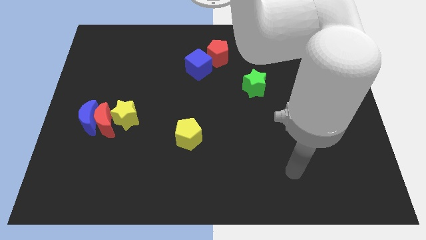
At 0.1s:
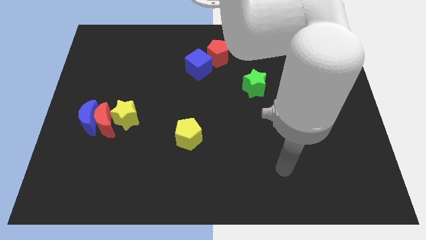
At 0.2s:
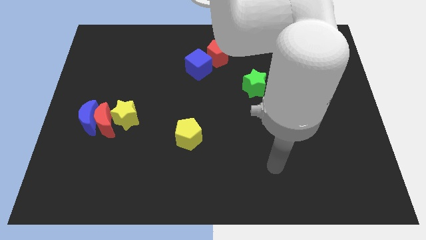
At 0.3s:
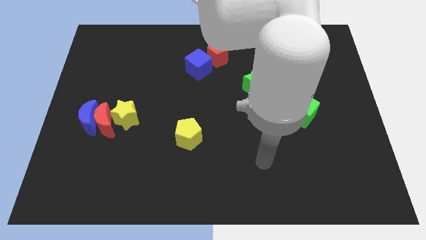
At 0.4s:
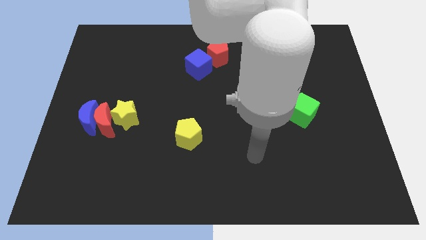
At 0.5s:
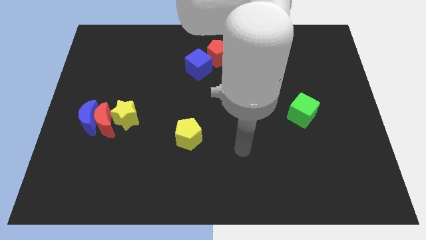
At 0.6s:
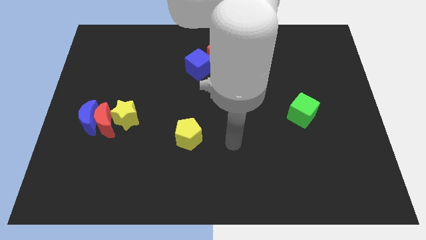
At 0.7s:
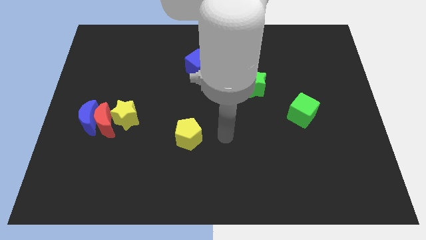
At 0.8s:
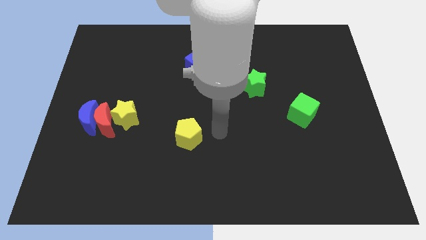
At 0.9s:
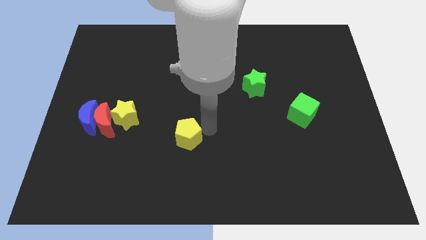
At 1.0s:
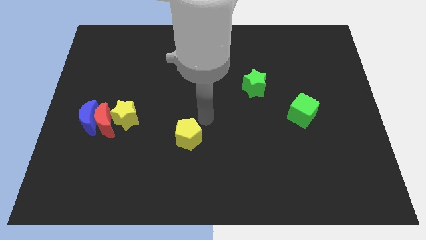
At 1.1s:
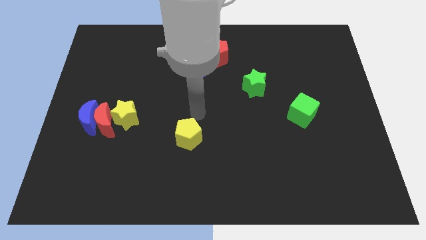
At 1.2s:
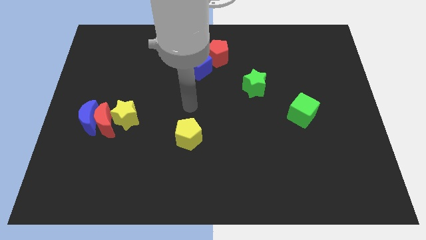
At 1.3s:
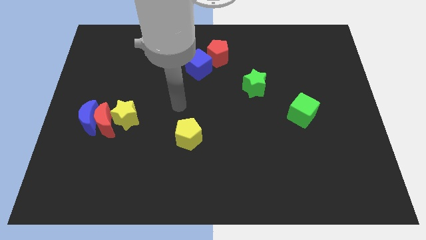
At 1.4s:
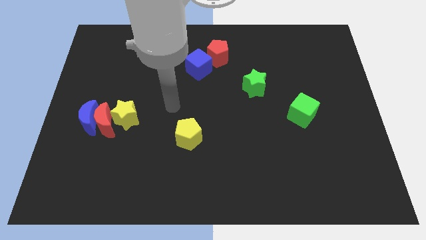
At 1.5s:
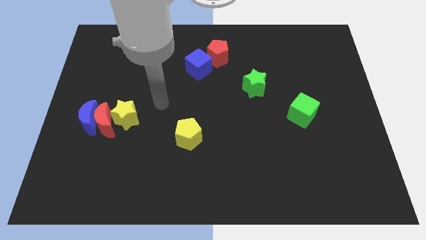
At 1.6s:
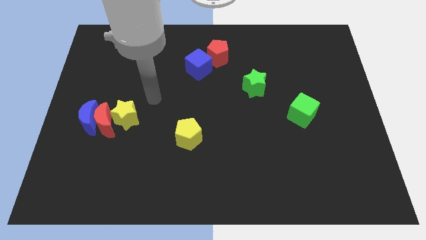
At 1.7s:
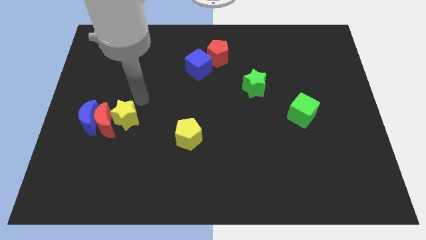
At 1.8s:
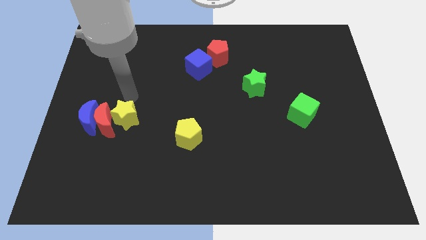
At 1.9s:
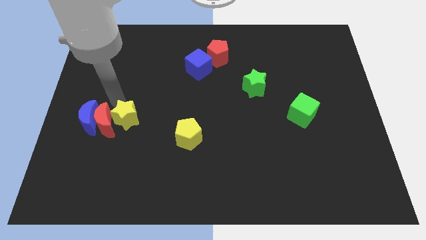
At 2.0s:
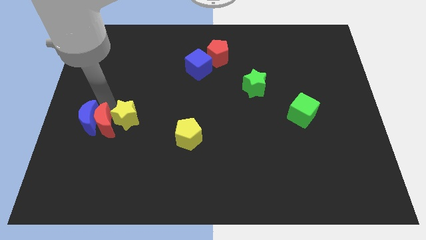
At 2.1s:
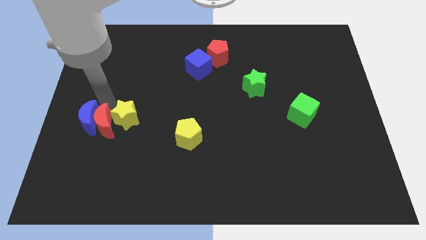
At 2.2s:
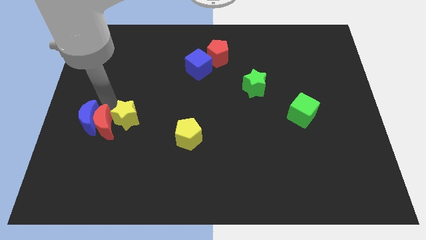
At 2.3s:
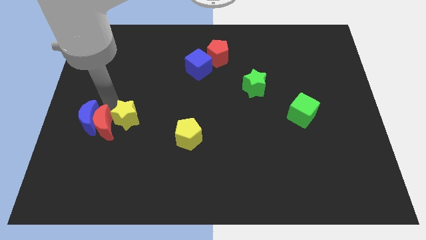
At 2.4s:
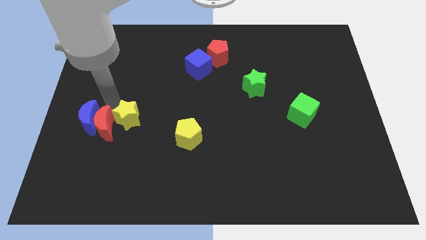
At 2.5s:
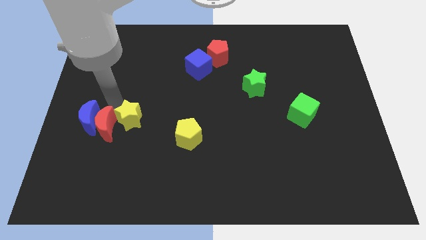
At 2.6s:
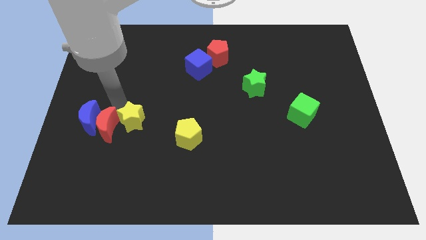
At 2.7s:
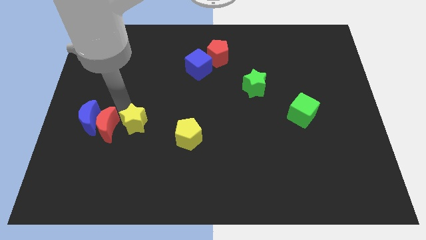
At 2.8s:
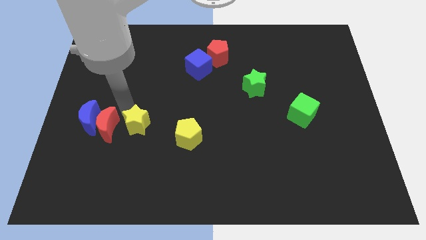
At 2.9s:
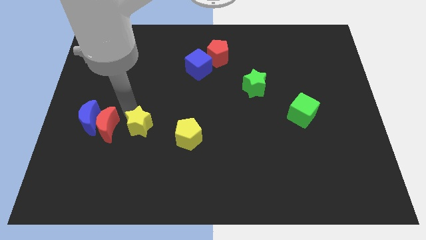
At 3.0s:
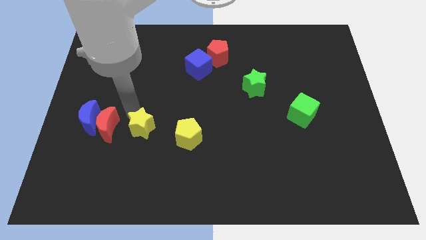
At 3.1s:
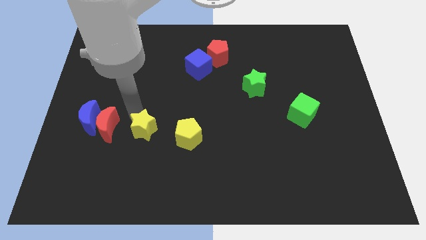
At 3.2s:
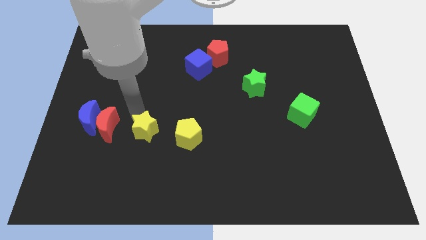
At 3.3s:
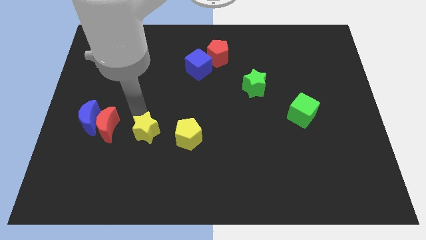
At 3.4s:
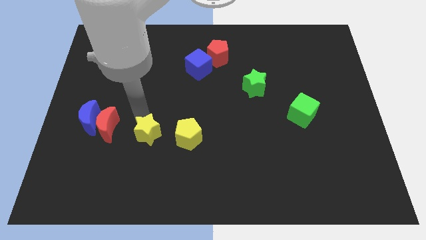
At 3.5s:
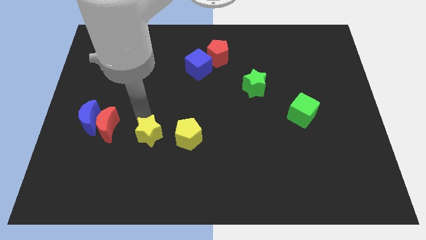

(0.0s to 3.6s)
slide the yellow star downwards and to the right a little bit

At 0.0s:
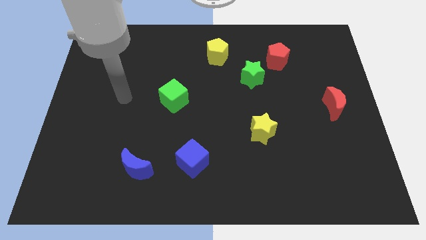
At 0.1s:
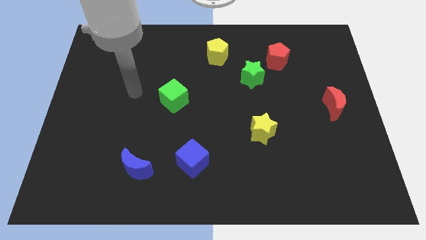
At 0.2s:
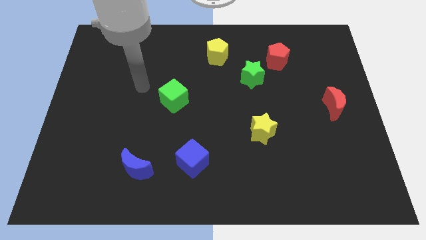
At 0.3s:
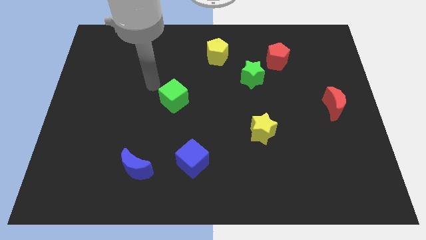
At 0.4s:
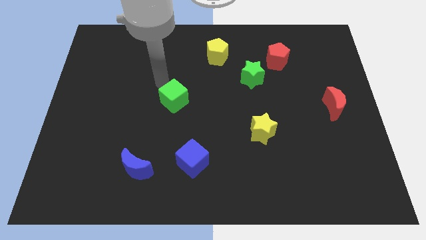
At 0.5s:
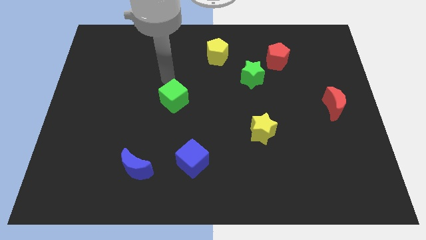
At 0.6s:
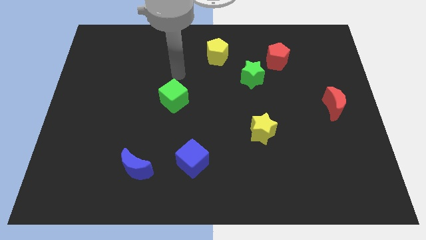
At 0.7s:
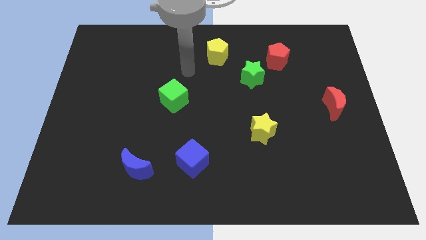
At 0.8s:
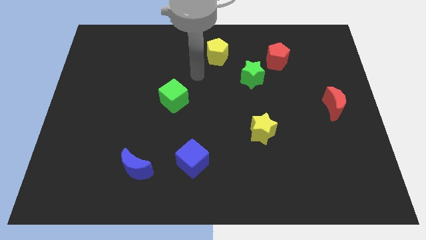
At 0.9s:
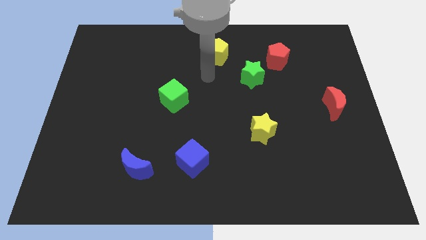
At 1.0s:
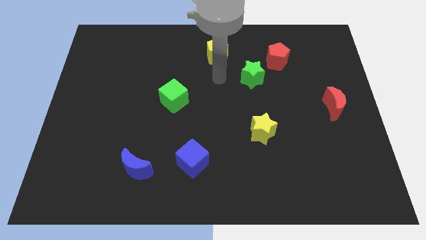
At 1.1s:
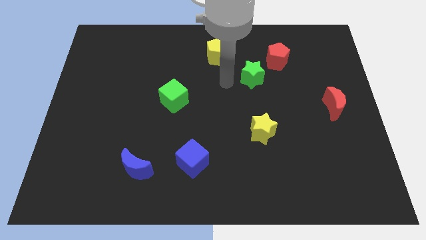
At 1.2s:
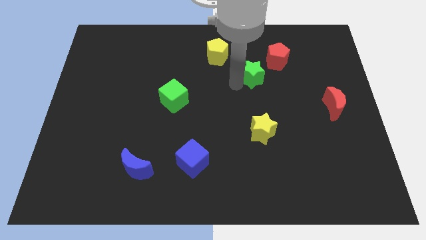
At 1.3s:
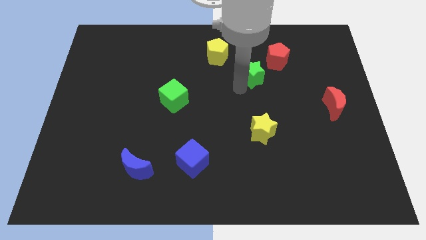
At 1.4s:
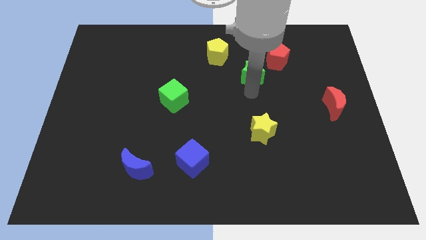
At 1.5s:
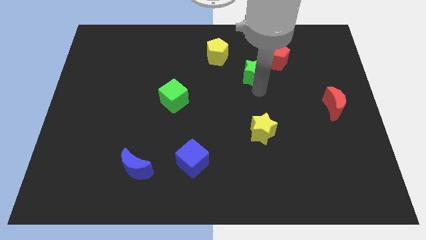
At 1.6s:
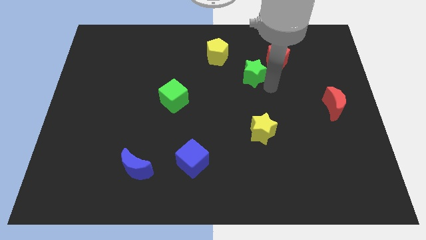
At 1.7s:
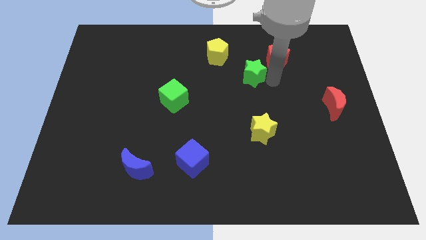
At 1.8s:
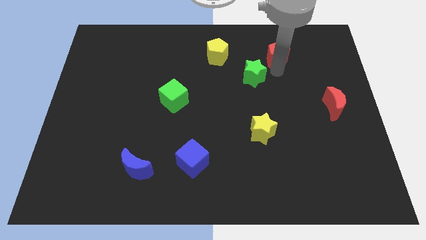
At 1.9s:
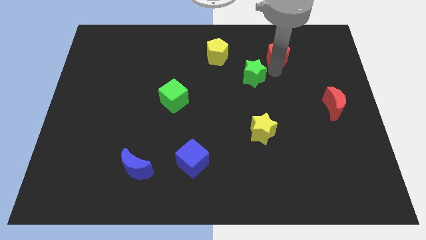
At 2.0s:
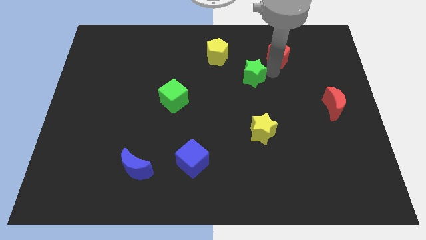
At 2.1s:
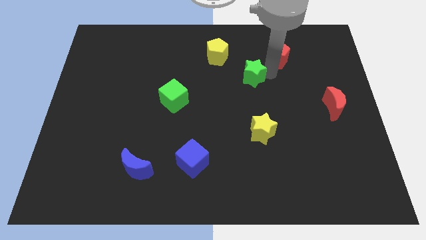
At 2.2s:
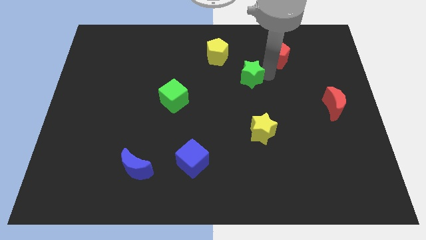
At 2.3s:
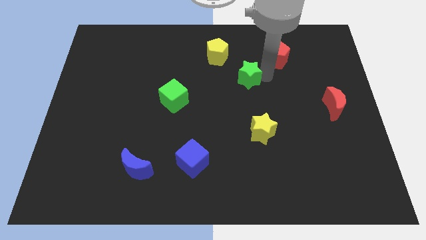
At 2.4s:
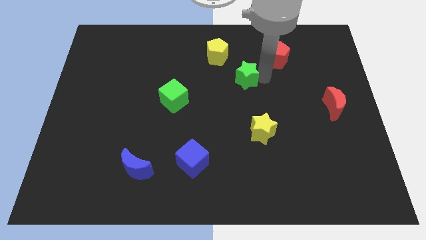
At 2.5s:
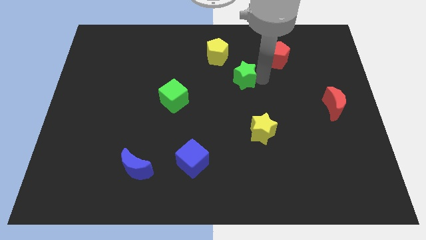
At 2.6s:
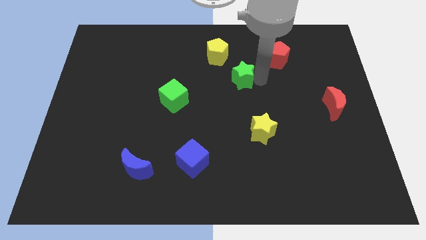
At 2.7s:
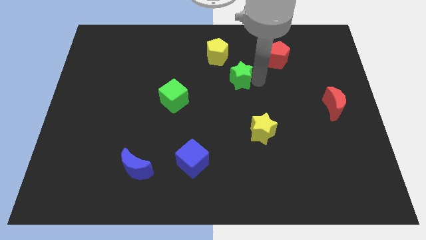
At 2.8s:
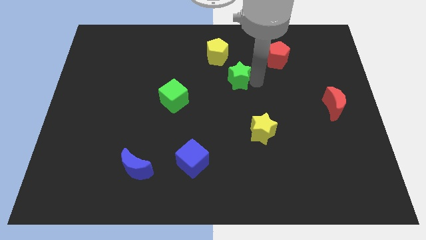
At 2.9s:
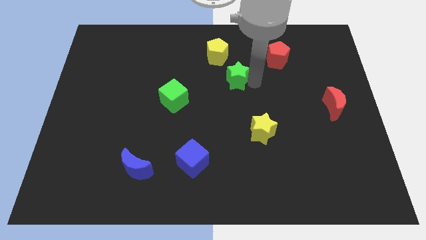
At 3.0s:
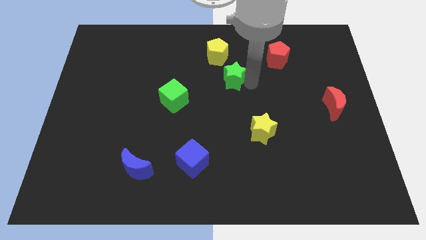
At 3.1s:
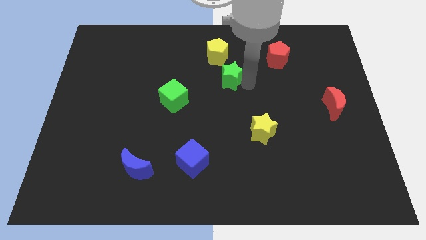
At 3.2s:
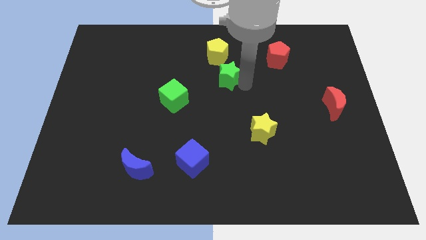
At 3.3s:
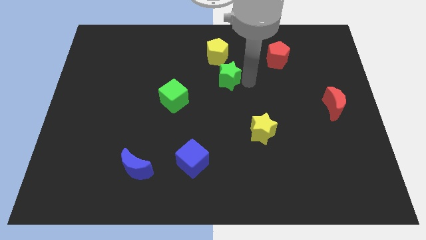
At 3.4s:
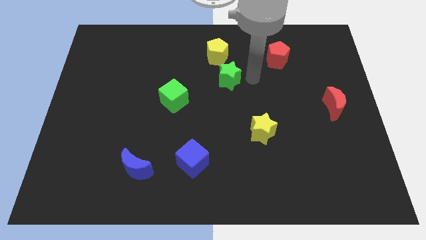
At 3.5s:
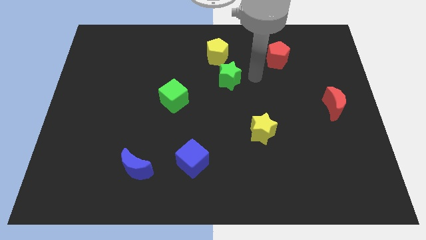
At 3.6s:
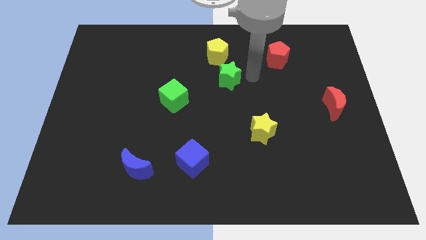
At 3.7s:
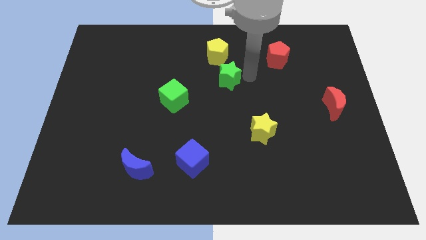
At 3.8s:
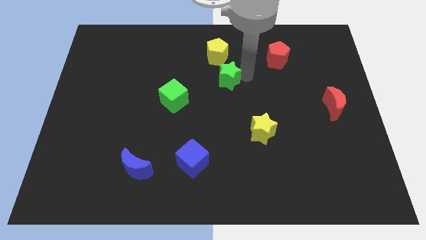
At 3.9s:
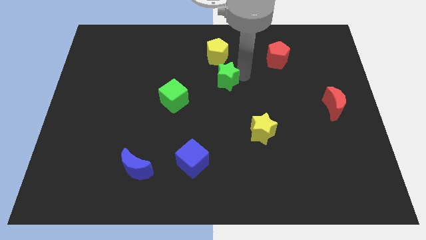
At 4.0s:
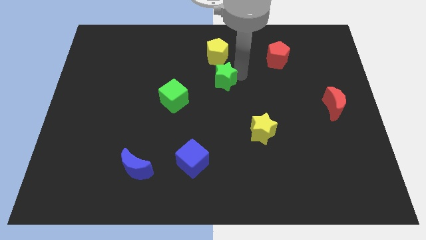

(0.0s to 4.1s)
slide the green star left a little

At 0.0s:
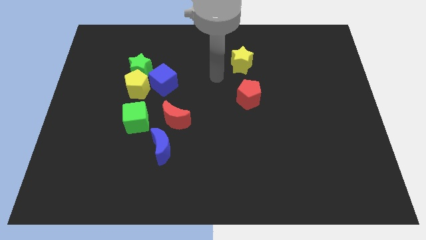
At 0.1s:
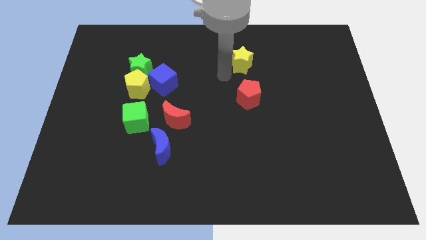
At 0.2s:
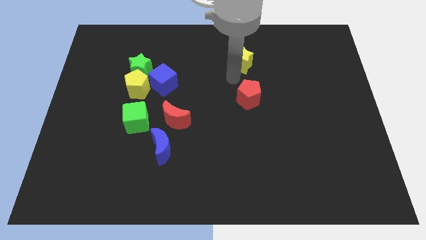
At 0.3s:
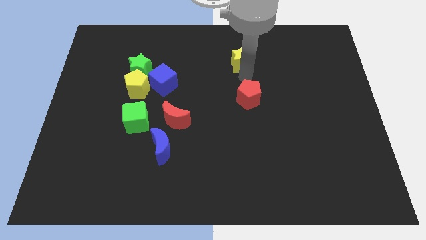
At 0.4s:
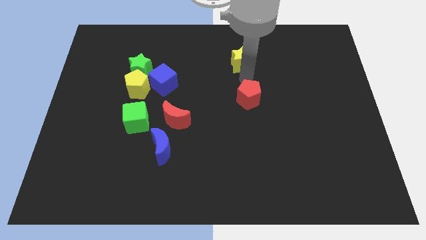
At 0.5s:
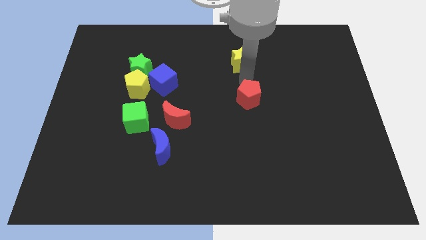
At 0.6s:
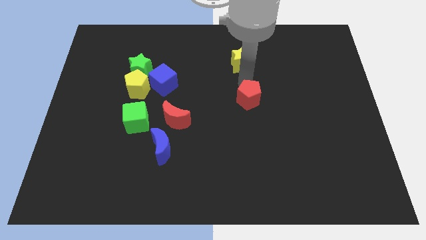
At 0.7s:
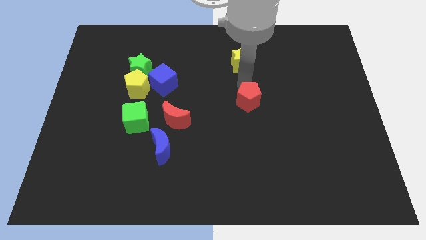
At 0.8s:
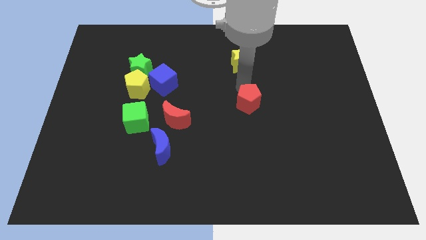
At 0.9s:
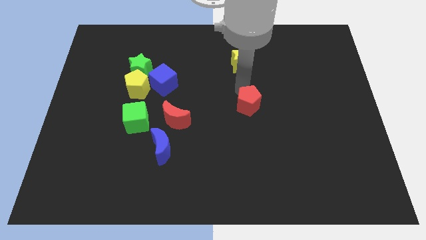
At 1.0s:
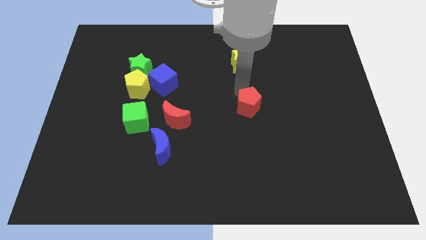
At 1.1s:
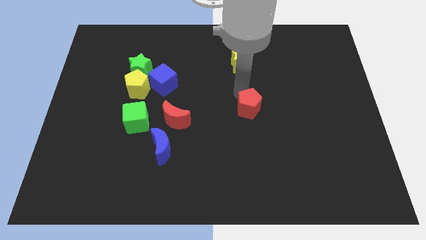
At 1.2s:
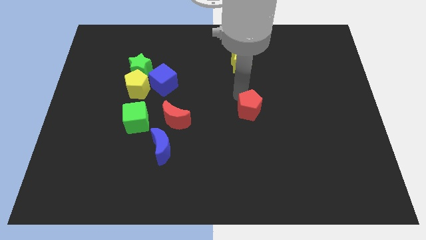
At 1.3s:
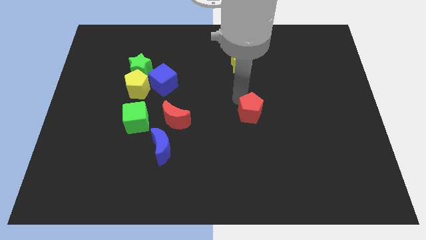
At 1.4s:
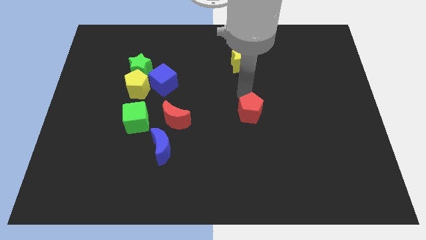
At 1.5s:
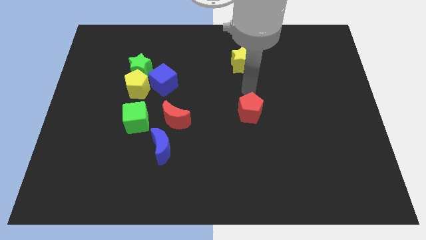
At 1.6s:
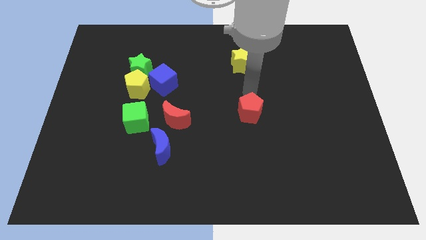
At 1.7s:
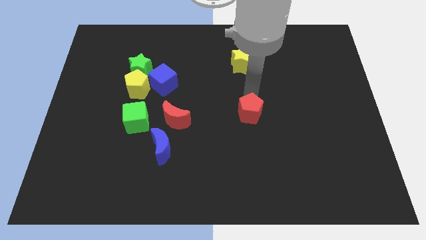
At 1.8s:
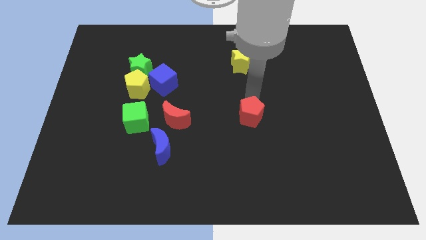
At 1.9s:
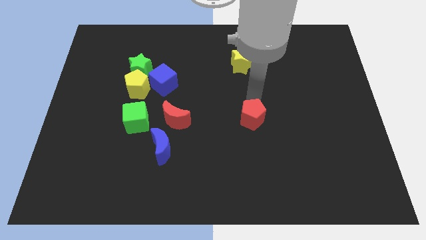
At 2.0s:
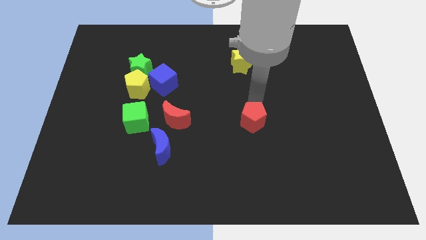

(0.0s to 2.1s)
slightly move the red pentagon downwards
